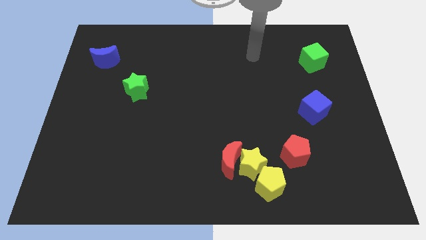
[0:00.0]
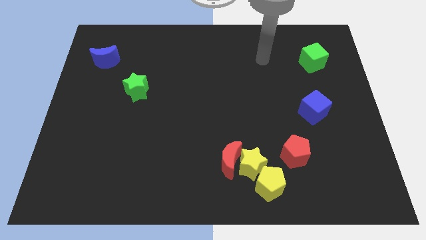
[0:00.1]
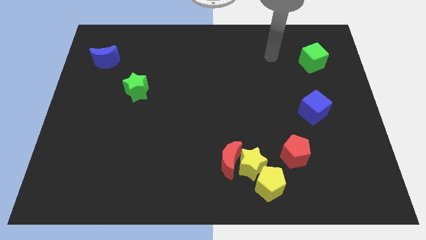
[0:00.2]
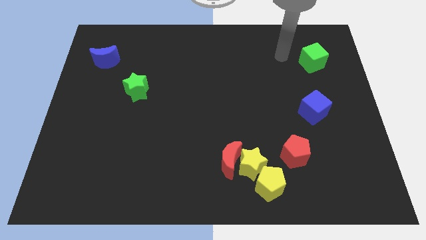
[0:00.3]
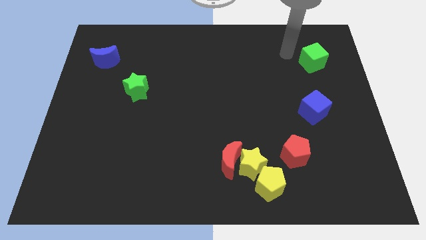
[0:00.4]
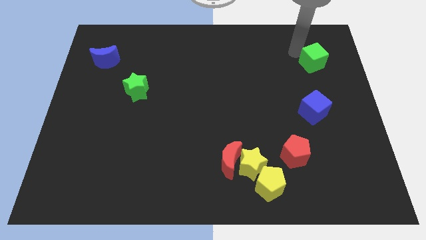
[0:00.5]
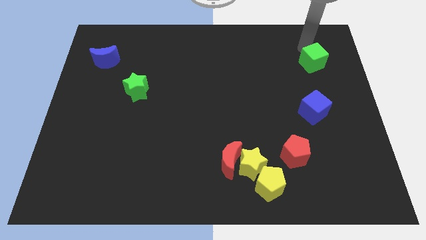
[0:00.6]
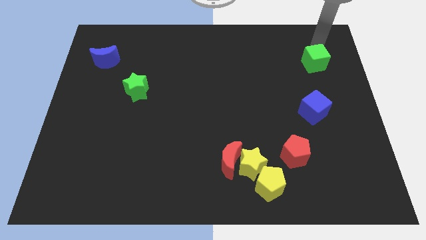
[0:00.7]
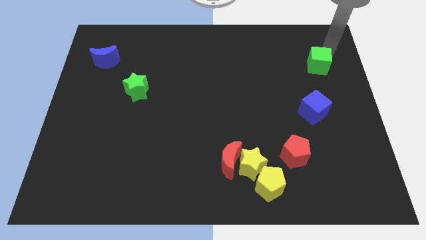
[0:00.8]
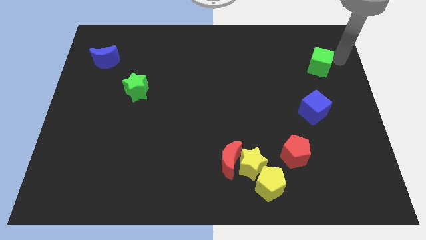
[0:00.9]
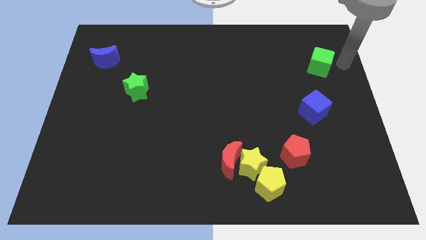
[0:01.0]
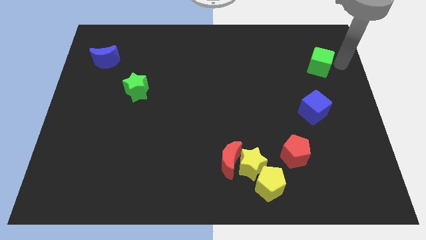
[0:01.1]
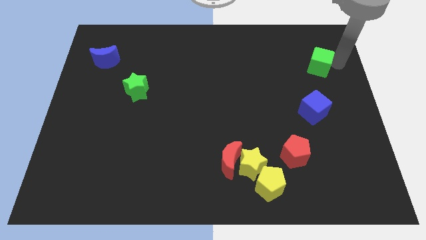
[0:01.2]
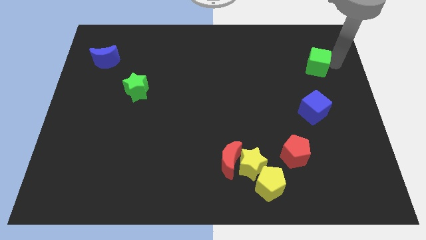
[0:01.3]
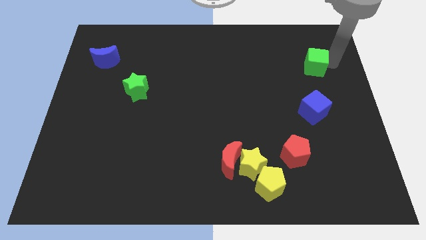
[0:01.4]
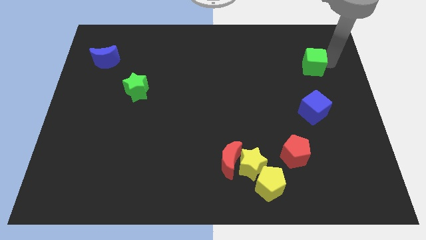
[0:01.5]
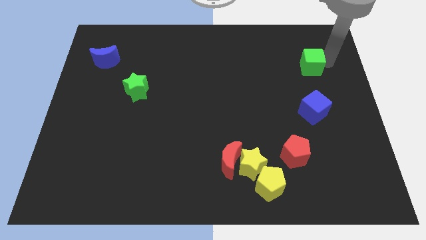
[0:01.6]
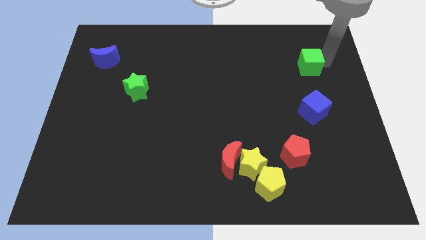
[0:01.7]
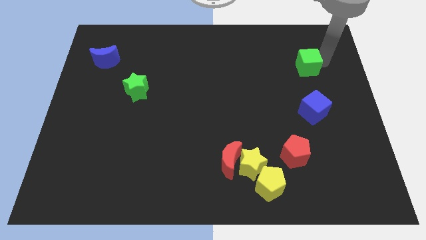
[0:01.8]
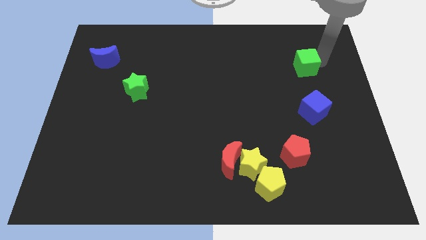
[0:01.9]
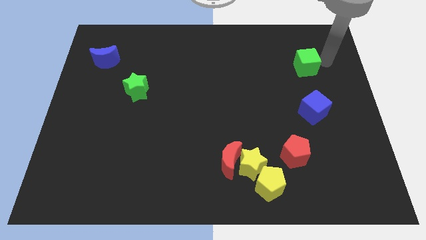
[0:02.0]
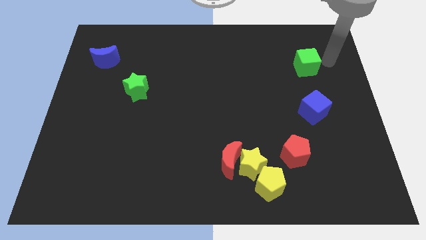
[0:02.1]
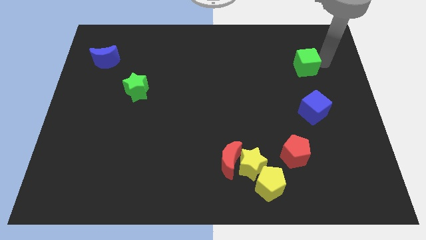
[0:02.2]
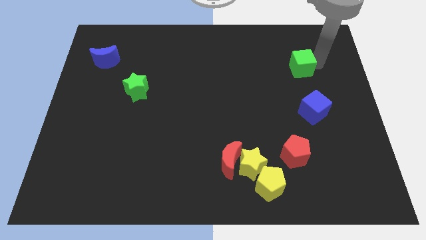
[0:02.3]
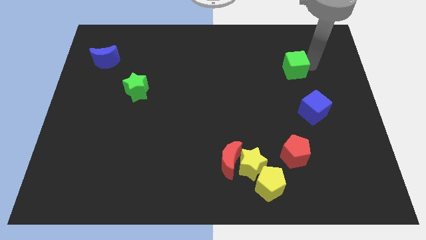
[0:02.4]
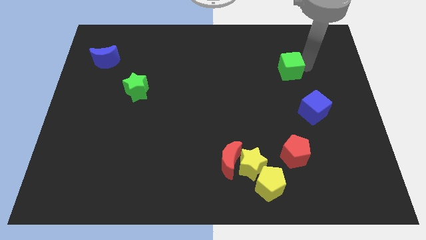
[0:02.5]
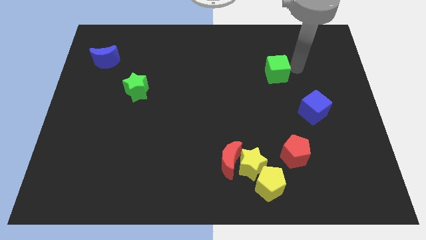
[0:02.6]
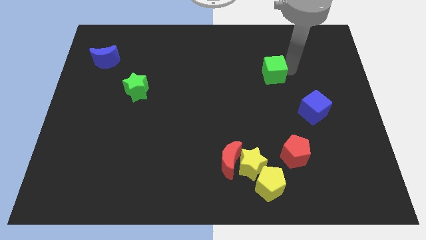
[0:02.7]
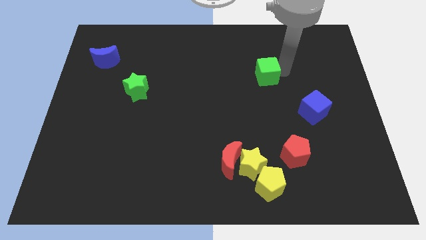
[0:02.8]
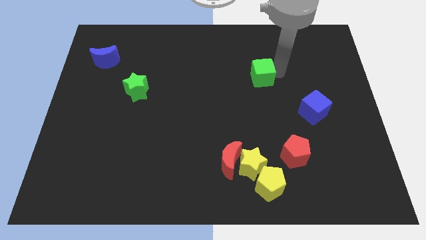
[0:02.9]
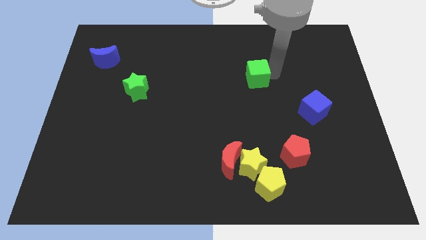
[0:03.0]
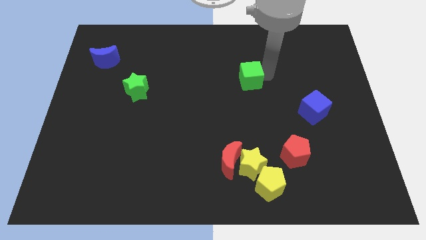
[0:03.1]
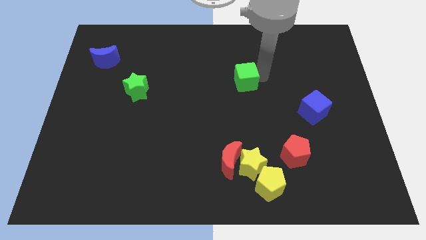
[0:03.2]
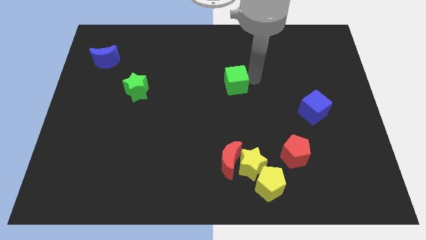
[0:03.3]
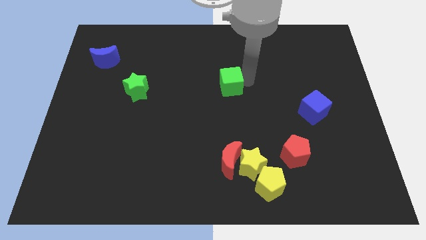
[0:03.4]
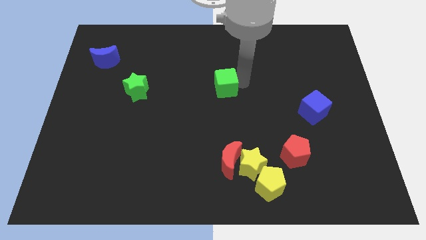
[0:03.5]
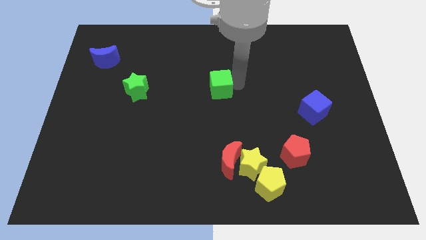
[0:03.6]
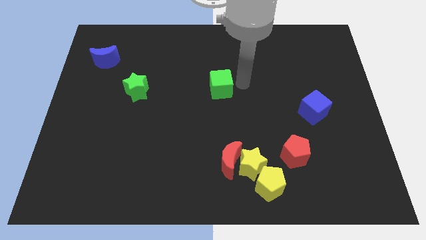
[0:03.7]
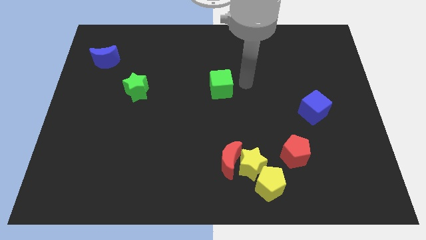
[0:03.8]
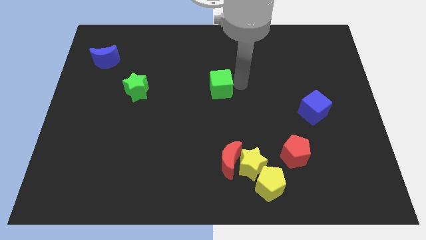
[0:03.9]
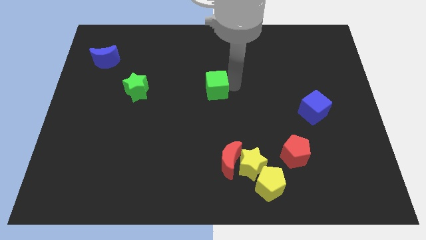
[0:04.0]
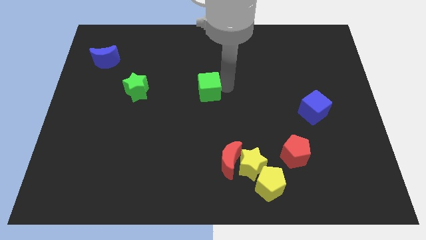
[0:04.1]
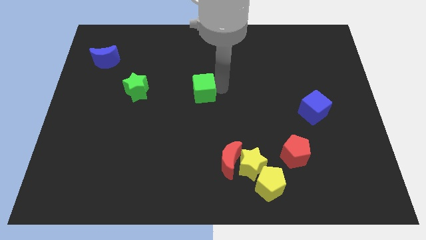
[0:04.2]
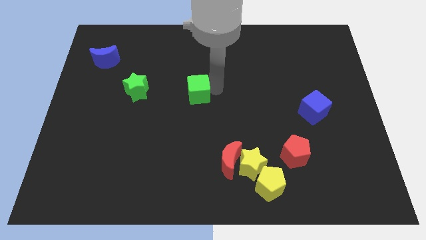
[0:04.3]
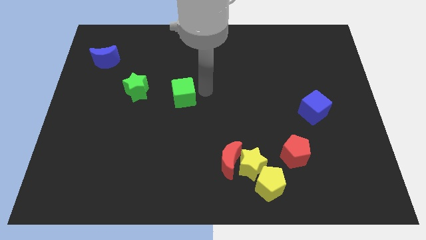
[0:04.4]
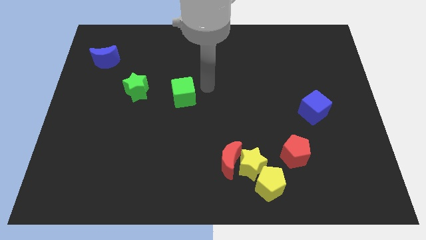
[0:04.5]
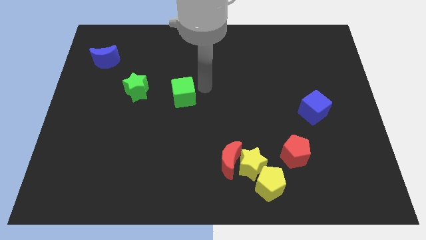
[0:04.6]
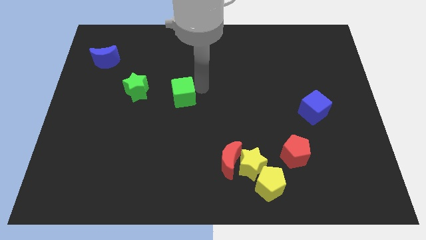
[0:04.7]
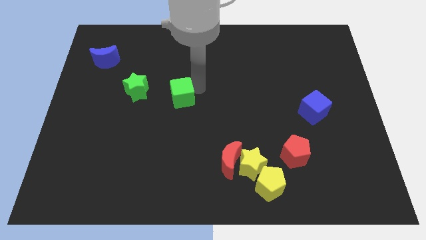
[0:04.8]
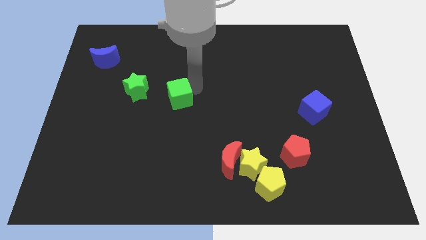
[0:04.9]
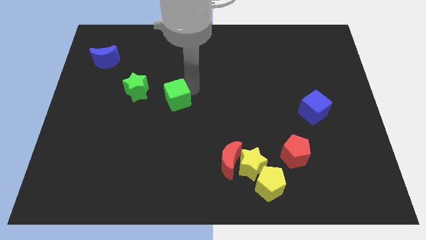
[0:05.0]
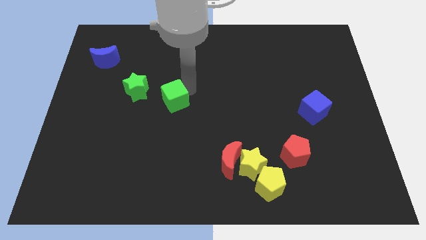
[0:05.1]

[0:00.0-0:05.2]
push the green cube to the bottom right side of the green star

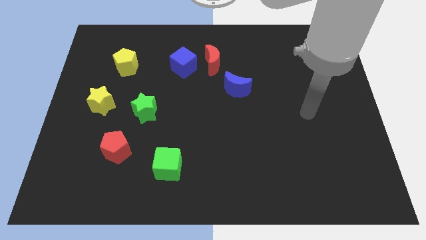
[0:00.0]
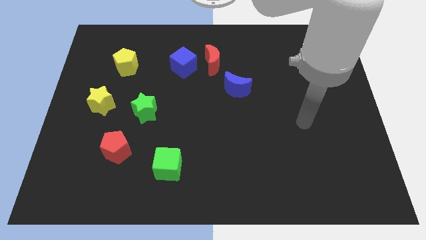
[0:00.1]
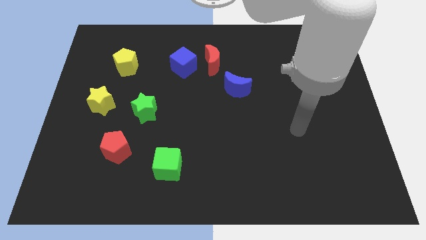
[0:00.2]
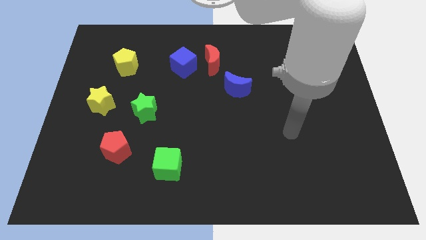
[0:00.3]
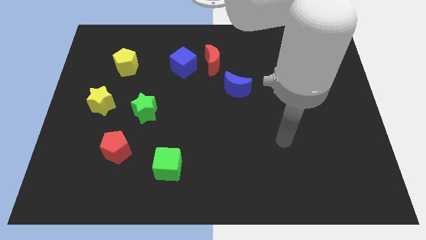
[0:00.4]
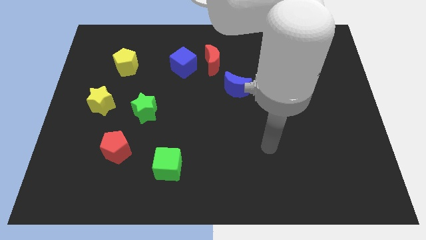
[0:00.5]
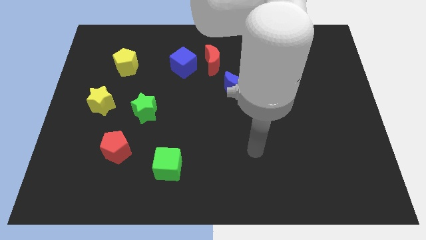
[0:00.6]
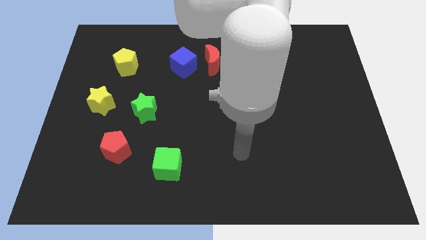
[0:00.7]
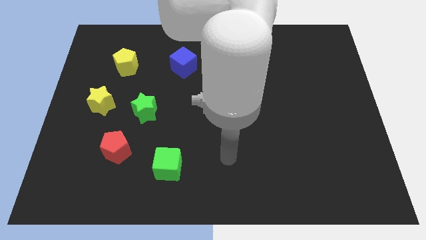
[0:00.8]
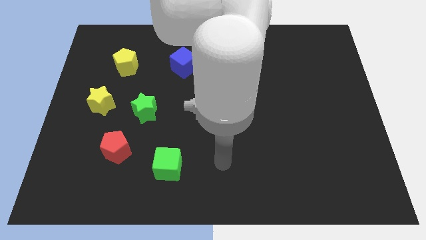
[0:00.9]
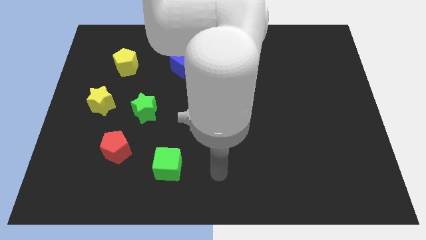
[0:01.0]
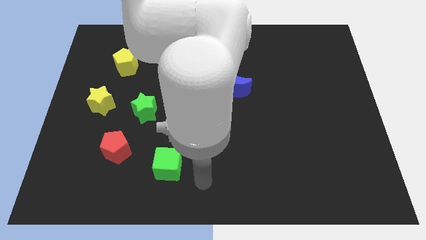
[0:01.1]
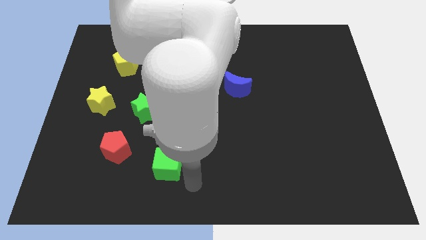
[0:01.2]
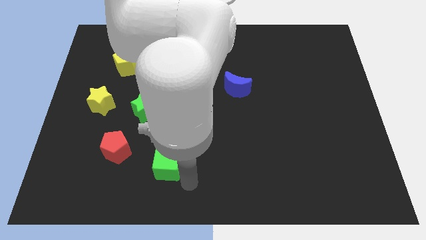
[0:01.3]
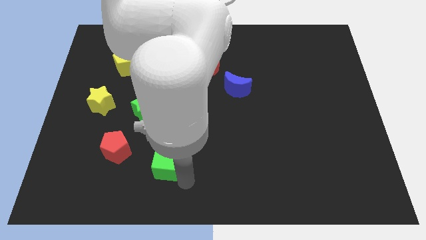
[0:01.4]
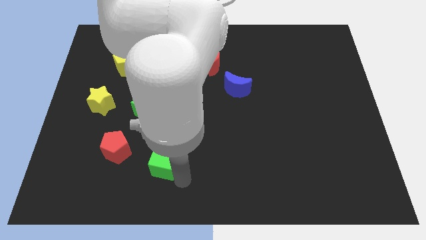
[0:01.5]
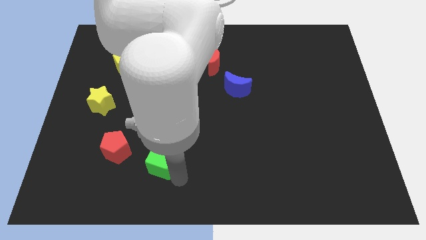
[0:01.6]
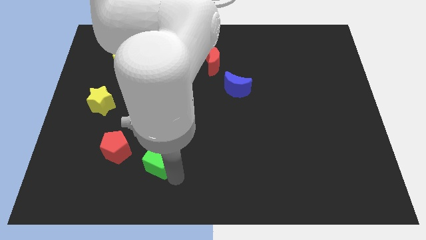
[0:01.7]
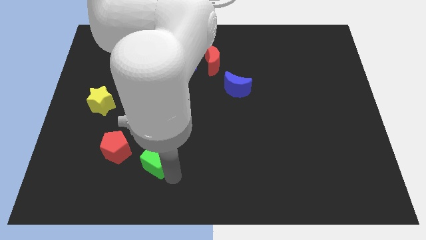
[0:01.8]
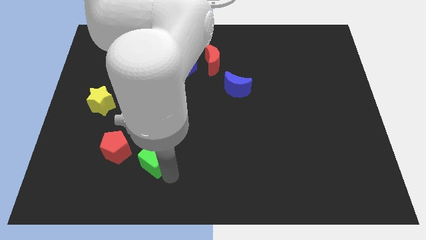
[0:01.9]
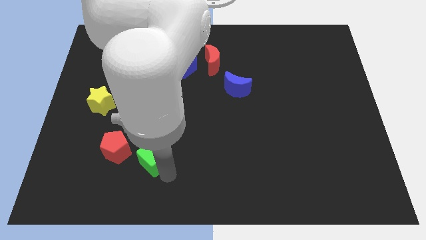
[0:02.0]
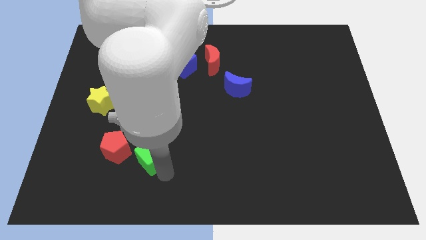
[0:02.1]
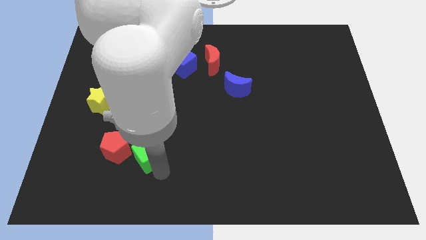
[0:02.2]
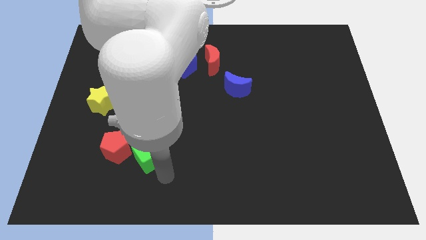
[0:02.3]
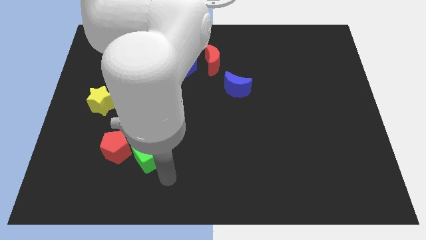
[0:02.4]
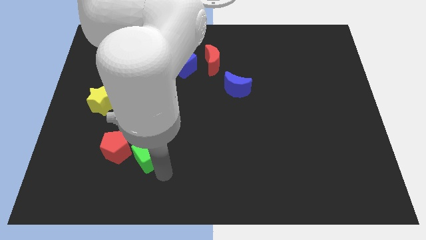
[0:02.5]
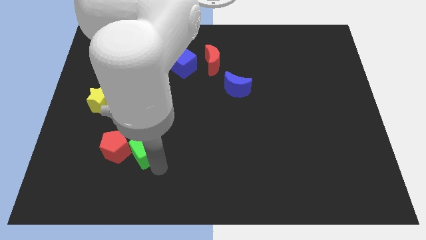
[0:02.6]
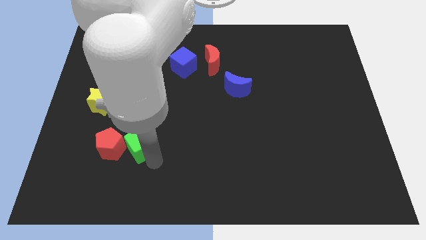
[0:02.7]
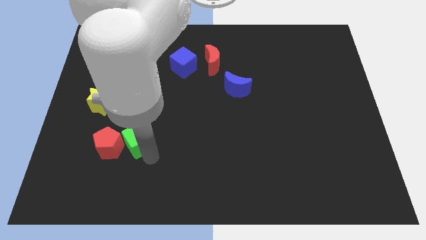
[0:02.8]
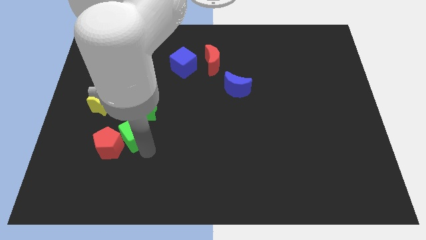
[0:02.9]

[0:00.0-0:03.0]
slide the green cube to the bottom left of the green star

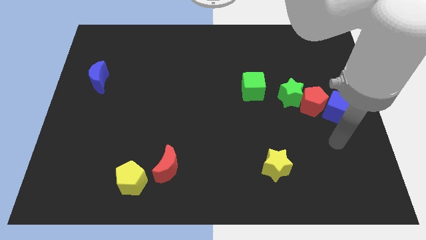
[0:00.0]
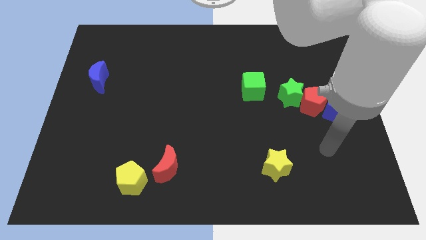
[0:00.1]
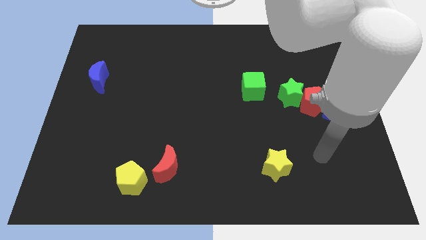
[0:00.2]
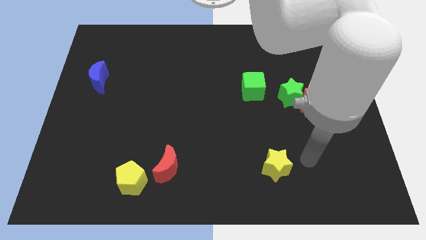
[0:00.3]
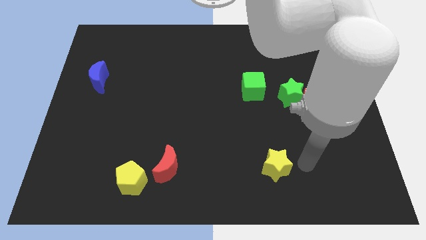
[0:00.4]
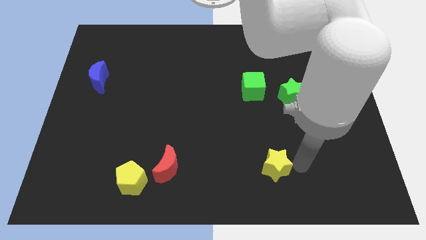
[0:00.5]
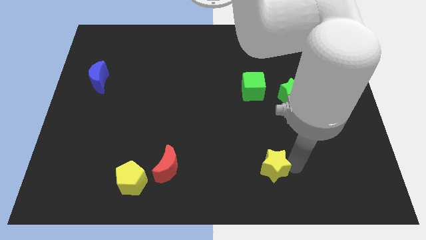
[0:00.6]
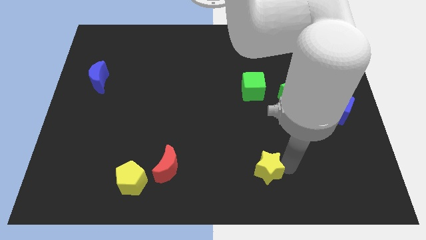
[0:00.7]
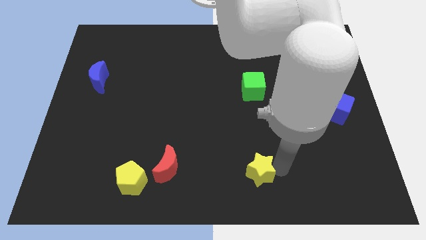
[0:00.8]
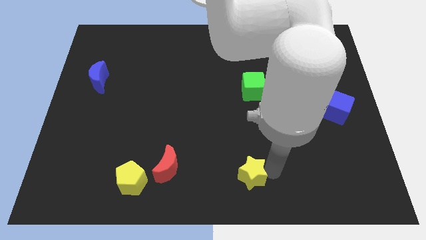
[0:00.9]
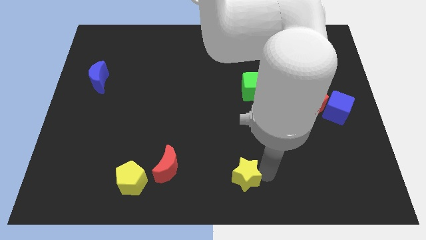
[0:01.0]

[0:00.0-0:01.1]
move the yellow star right of the red moon
